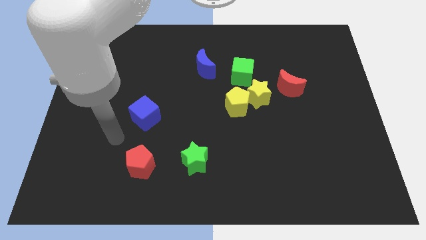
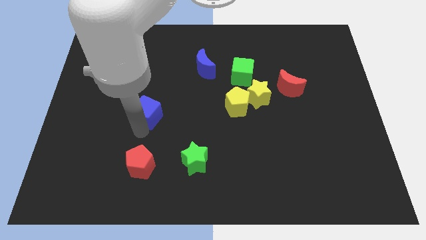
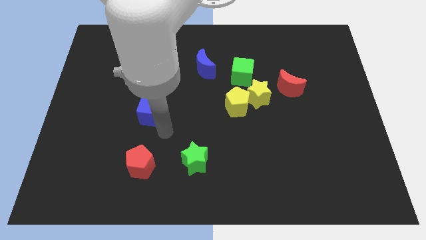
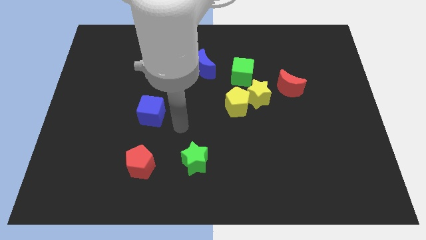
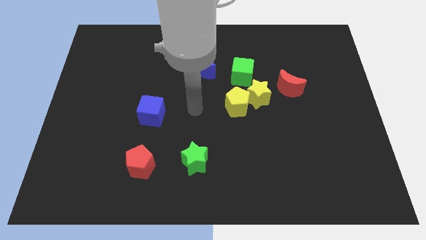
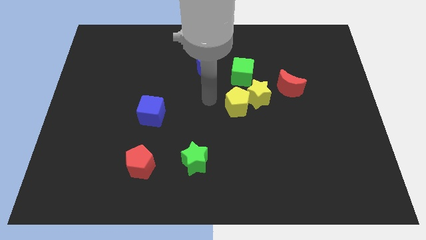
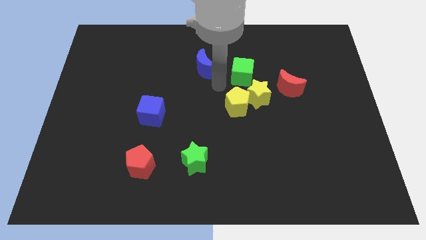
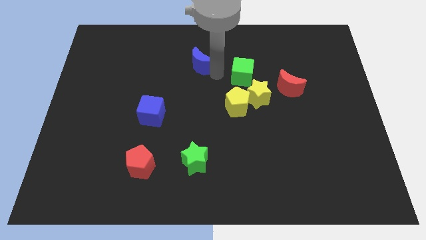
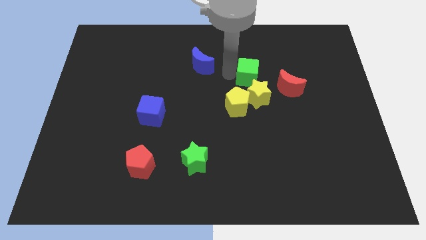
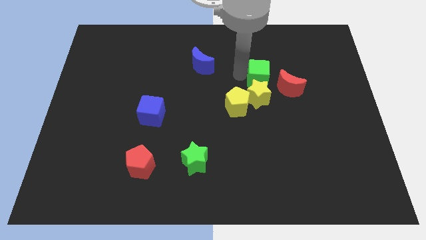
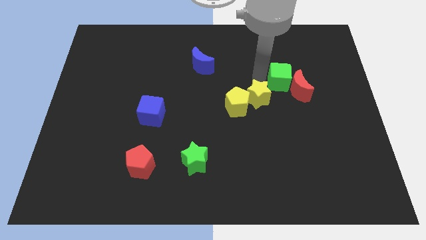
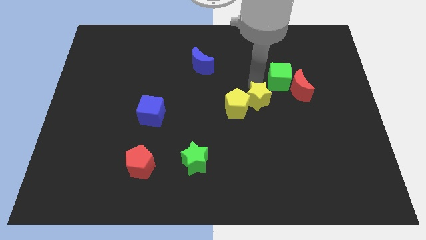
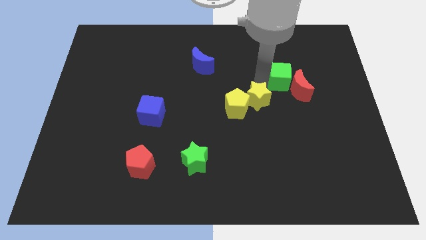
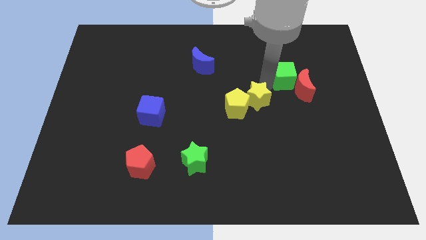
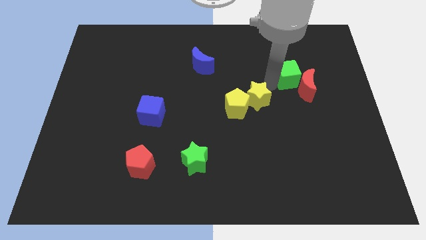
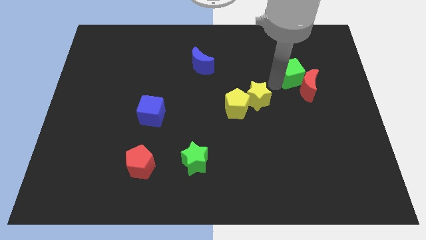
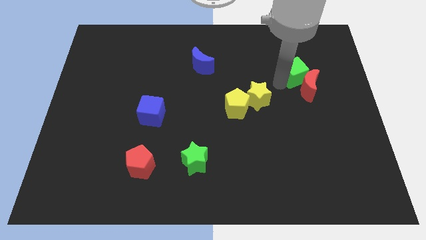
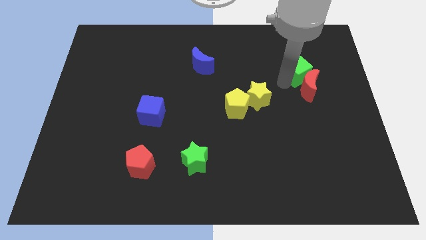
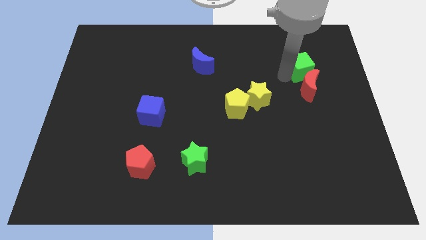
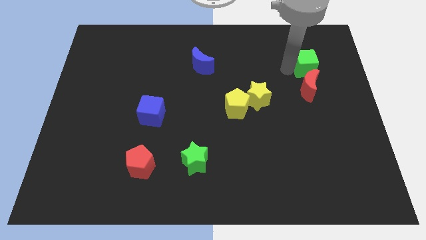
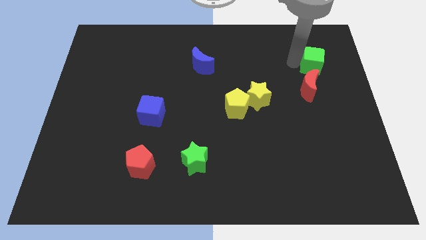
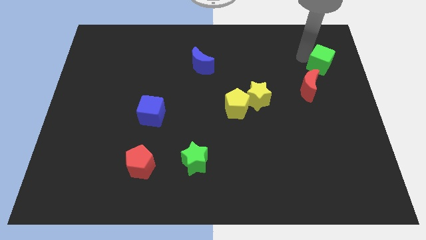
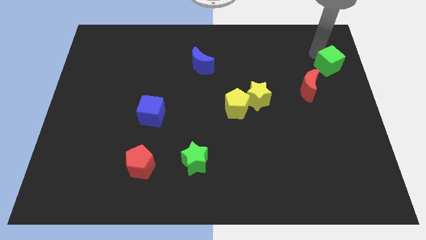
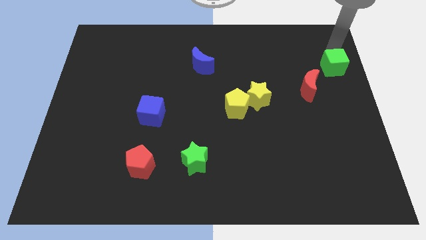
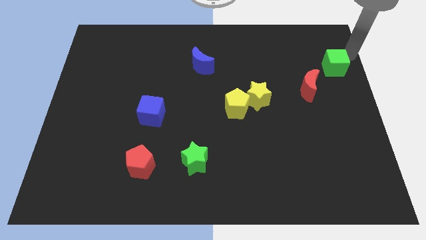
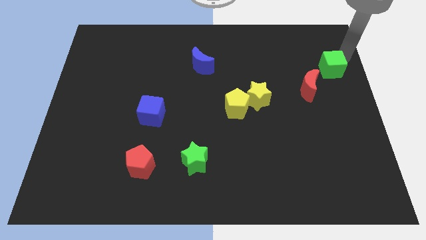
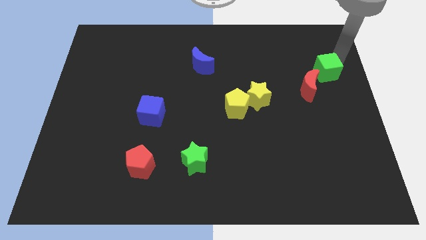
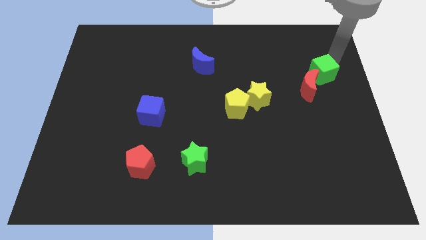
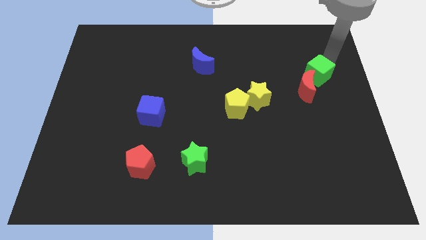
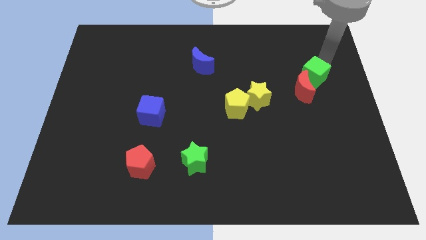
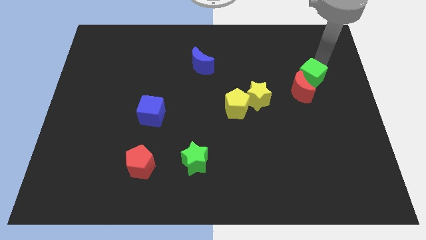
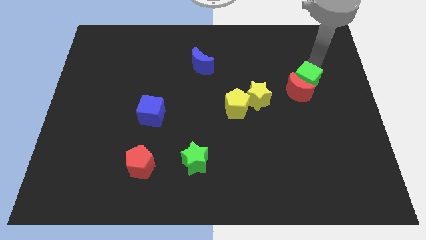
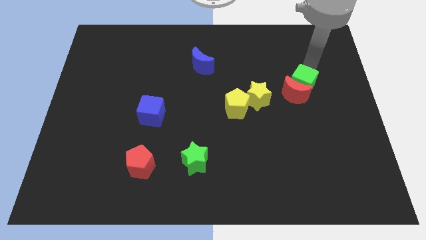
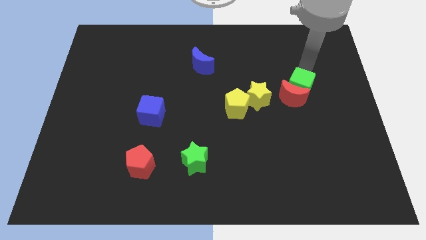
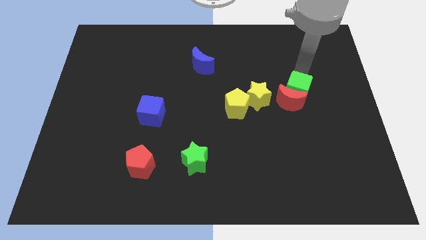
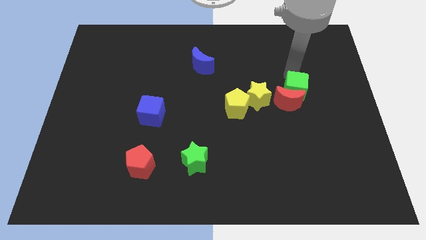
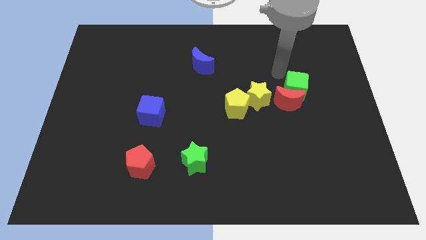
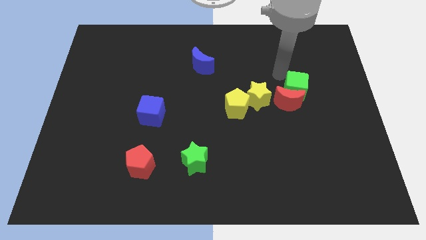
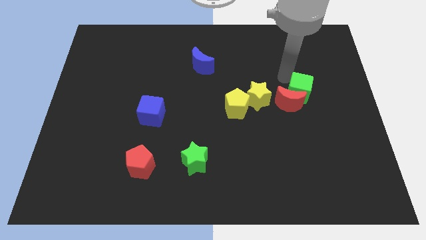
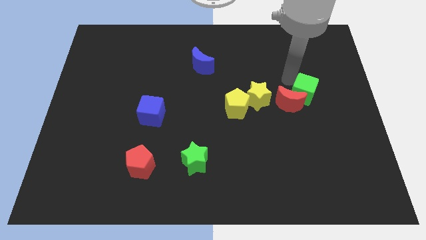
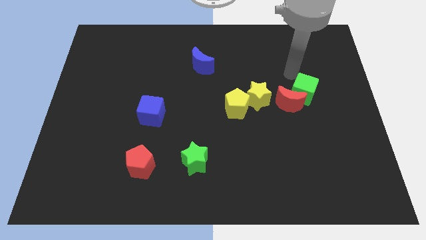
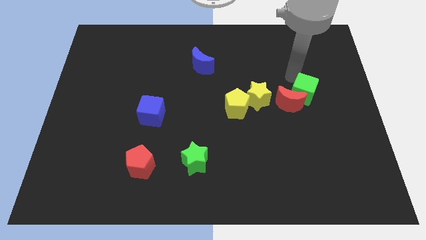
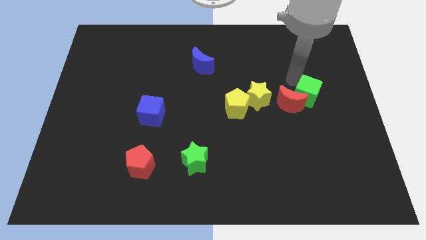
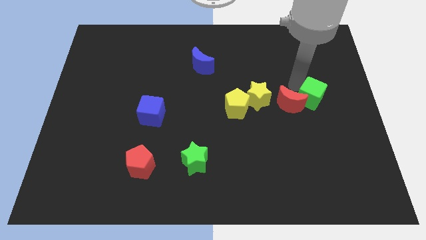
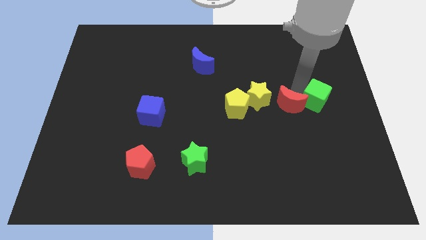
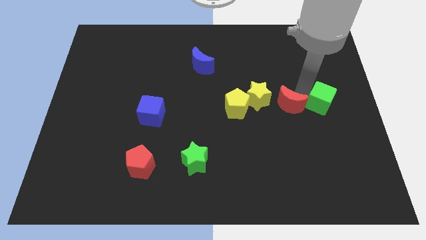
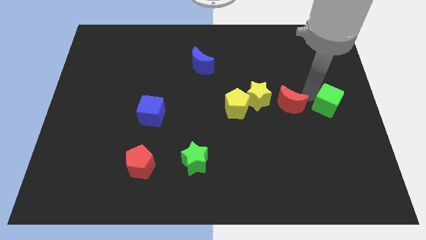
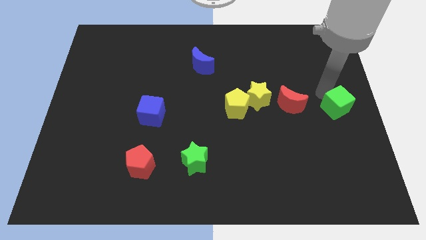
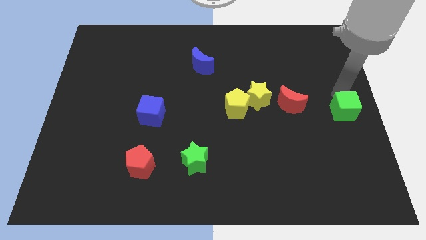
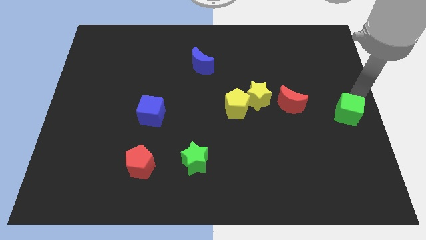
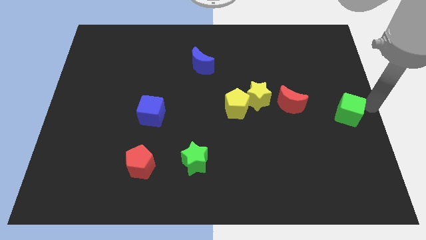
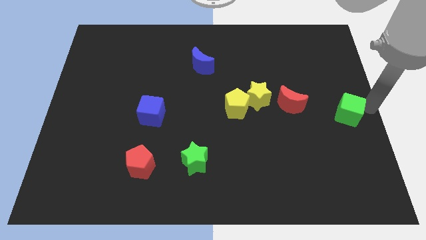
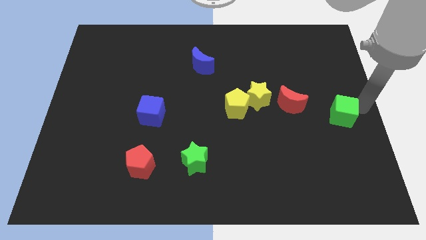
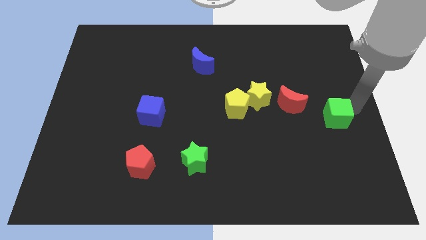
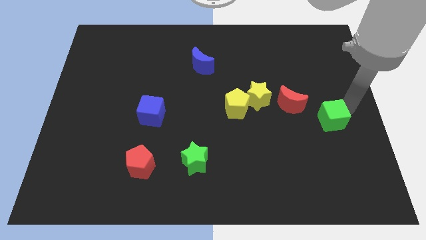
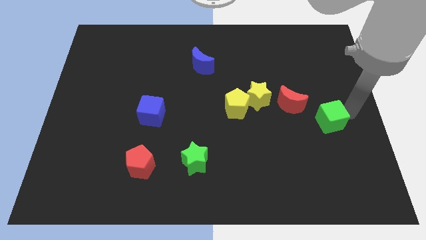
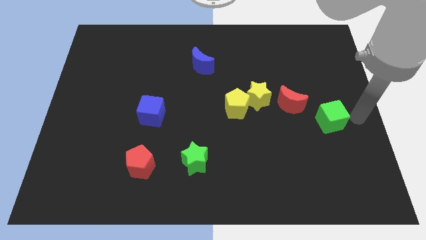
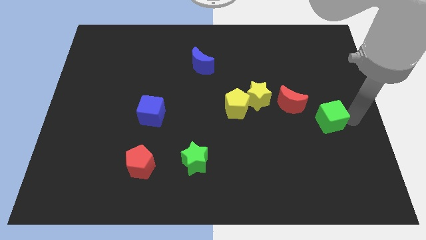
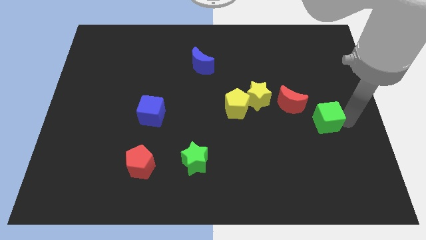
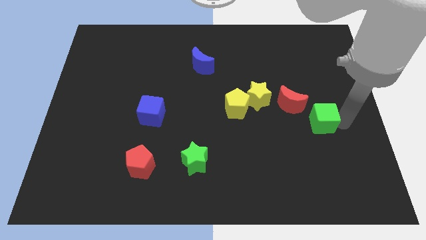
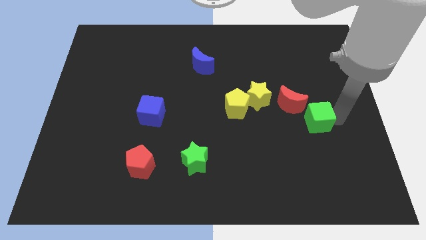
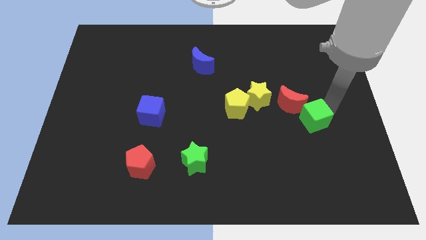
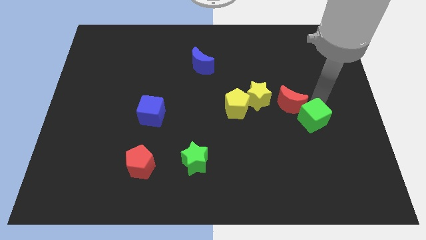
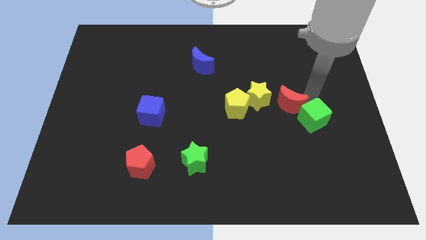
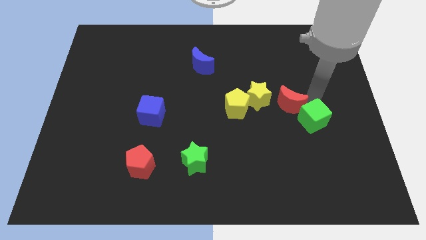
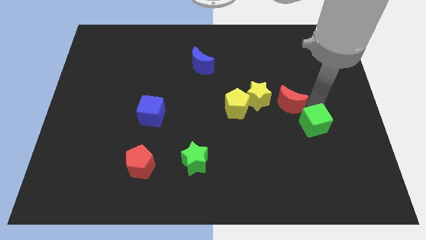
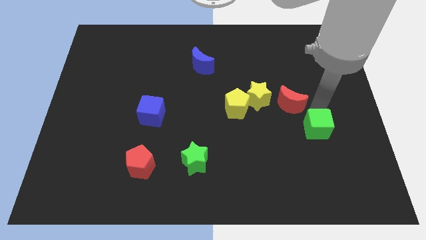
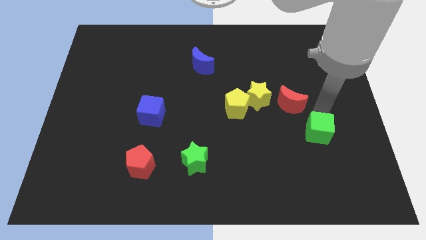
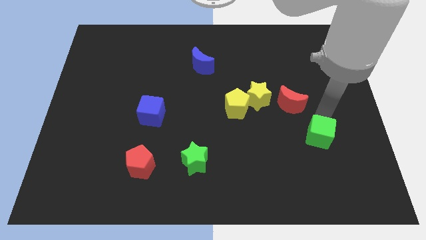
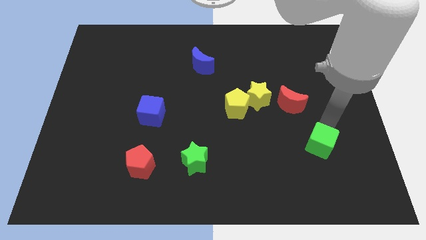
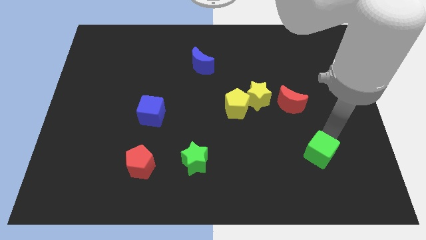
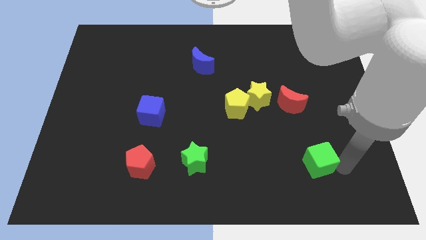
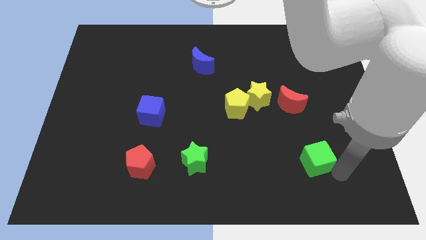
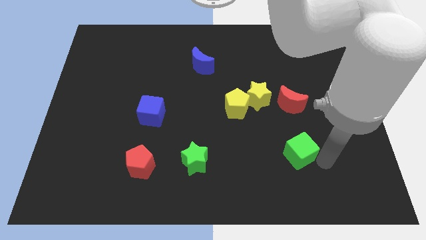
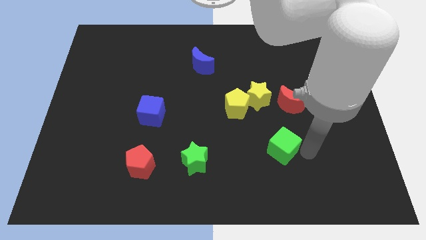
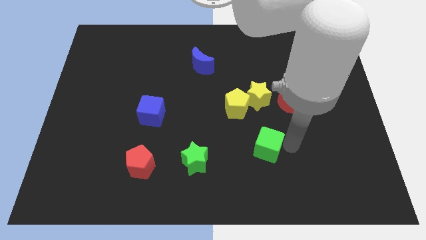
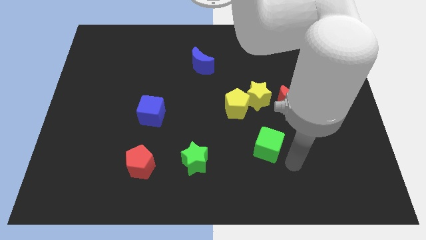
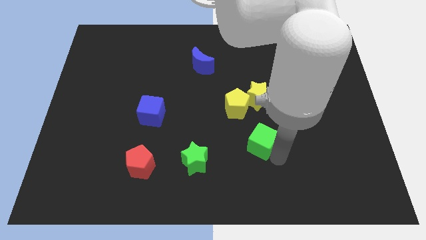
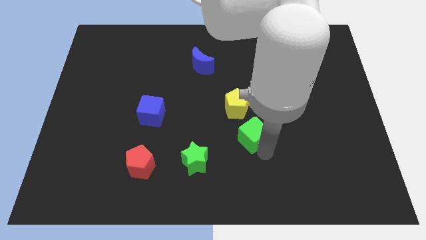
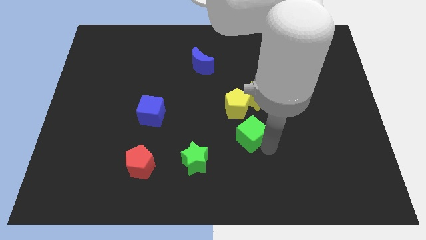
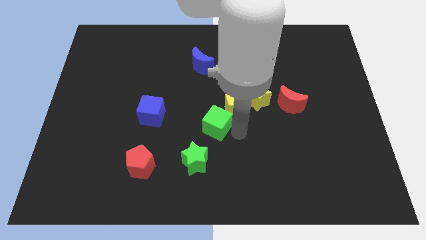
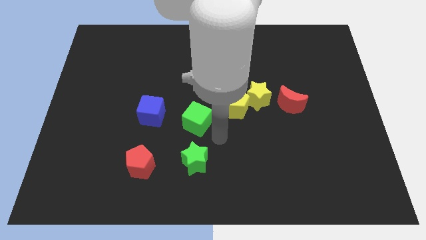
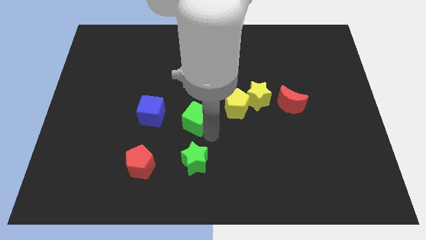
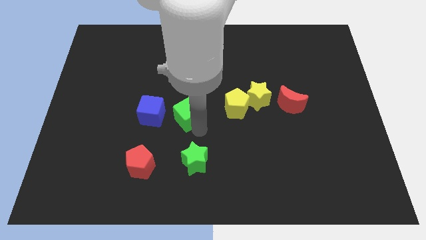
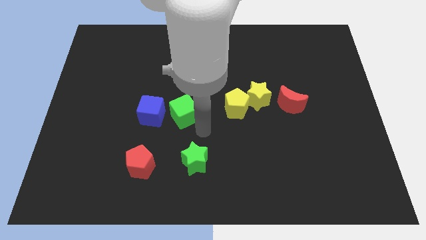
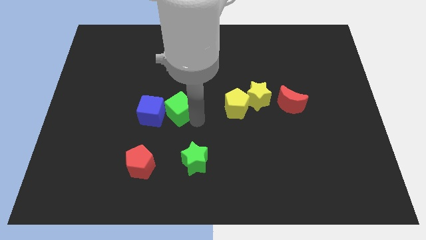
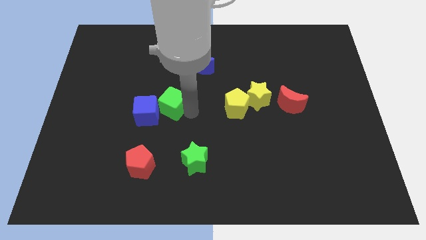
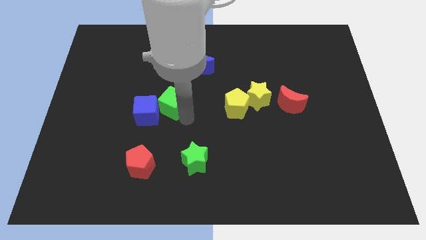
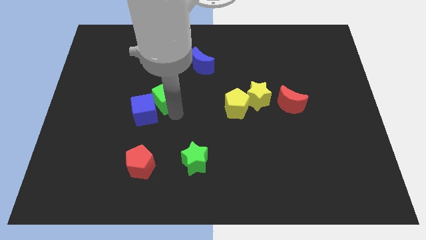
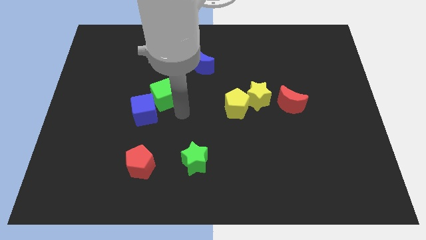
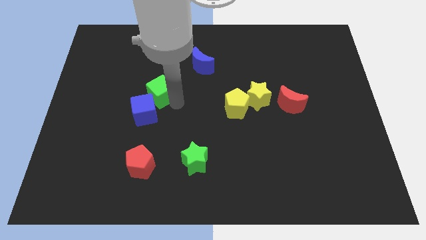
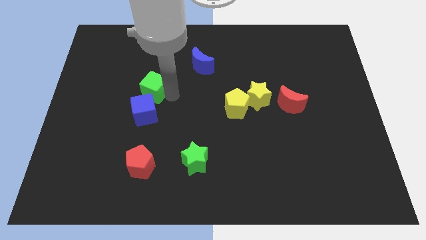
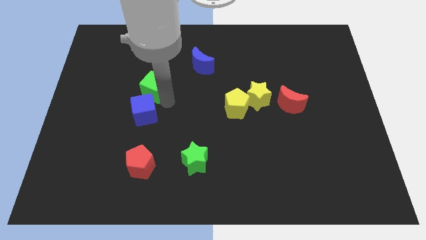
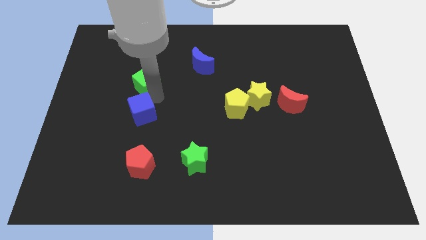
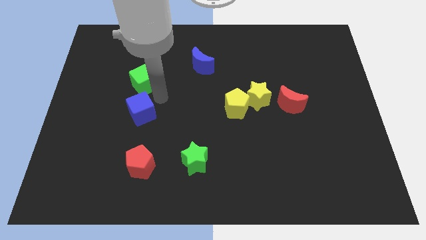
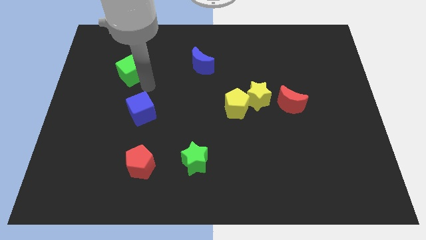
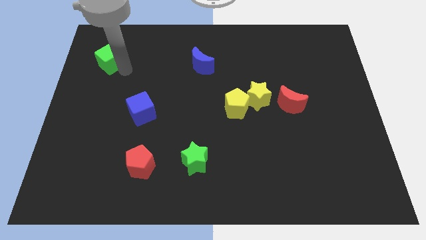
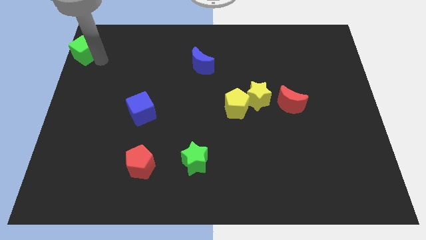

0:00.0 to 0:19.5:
move the green cube to the top left corner
